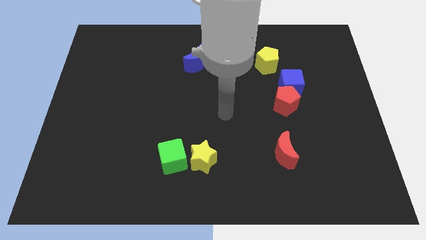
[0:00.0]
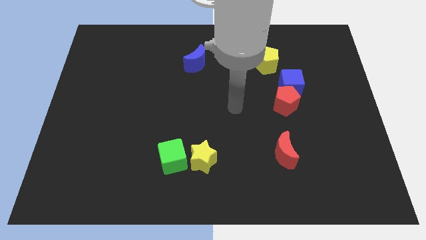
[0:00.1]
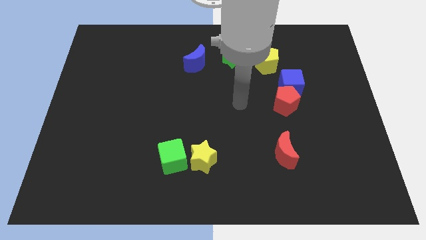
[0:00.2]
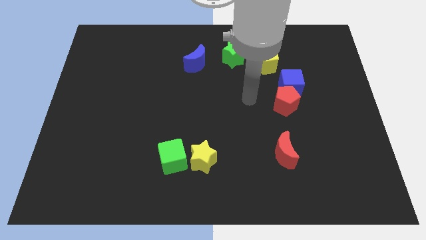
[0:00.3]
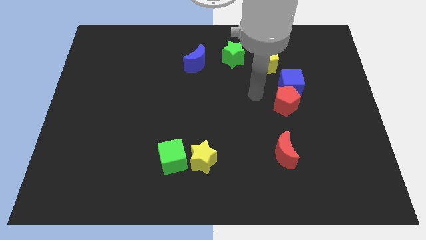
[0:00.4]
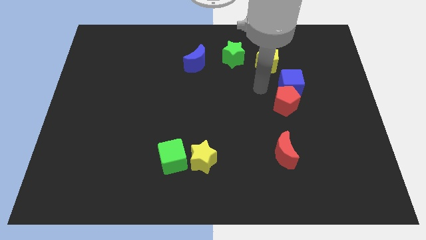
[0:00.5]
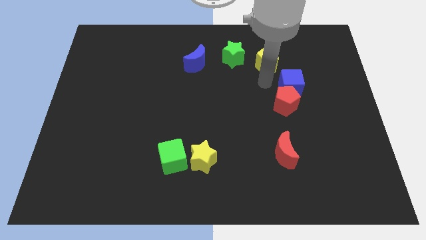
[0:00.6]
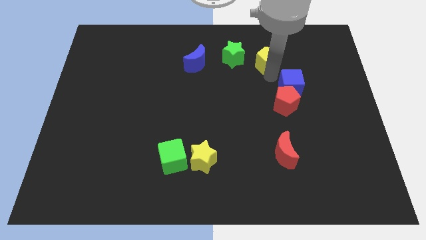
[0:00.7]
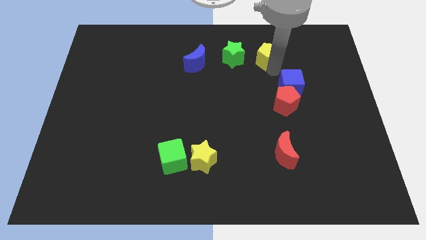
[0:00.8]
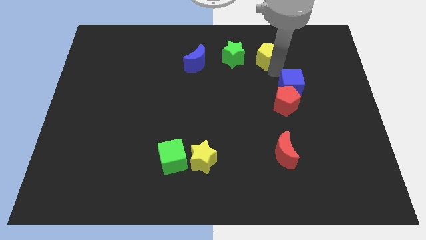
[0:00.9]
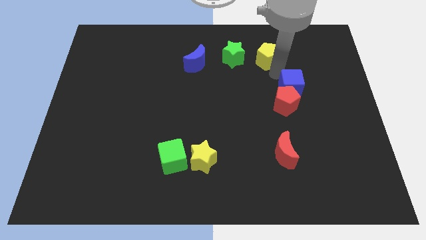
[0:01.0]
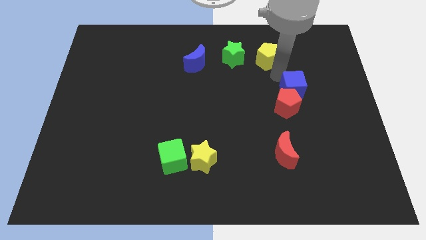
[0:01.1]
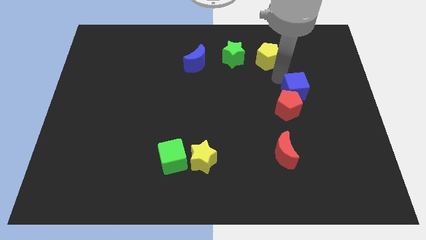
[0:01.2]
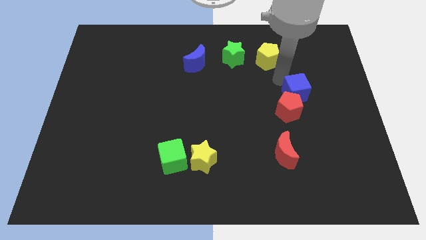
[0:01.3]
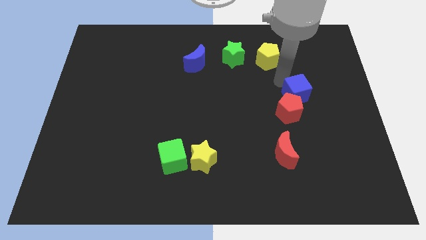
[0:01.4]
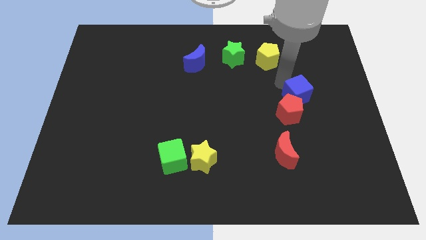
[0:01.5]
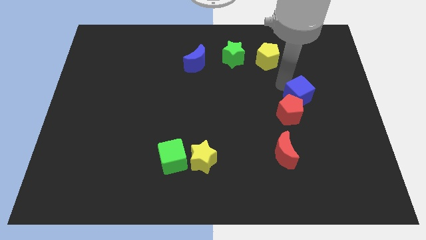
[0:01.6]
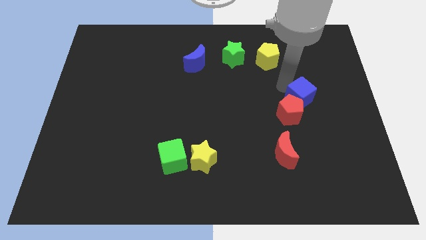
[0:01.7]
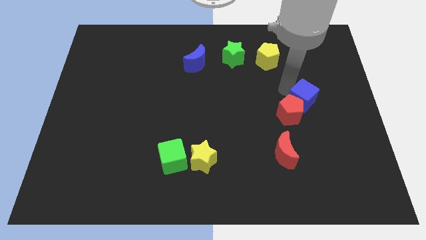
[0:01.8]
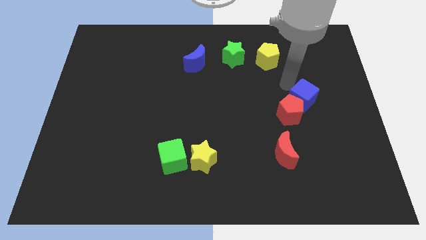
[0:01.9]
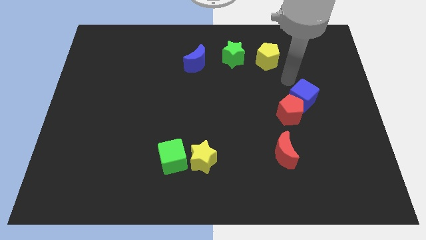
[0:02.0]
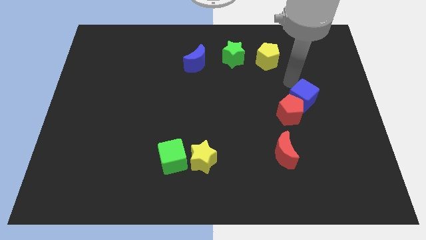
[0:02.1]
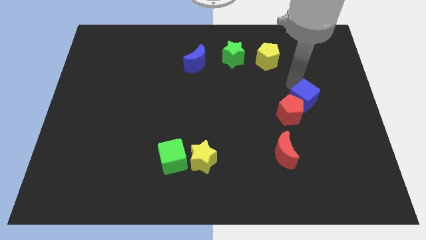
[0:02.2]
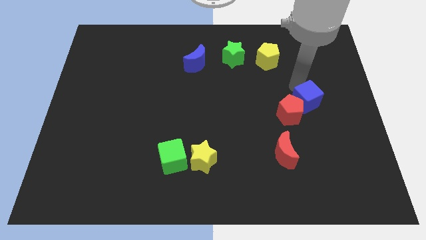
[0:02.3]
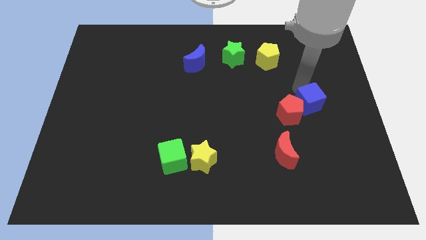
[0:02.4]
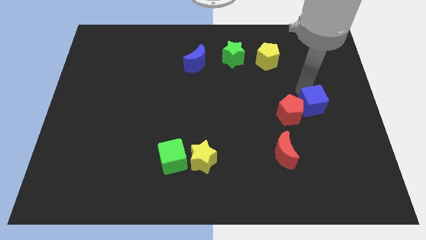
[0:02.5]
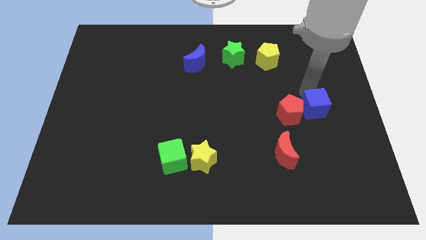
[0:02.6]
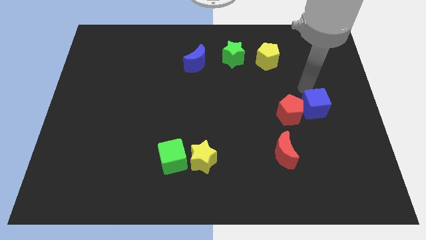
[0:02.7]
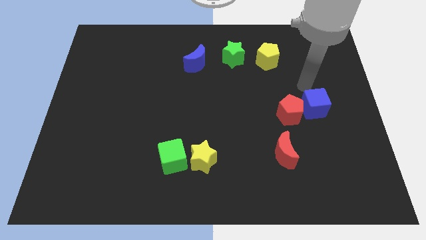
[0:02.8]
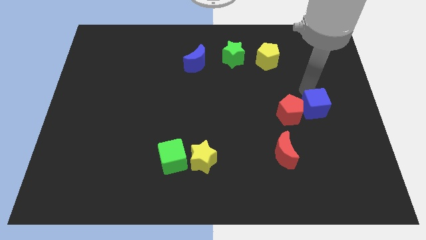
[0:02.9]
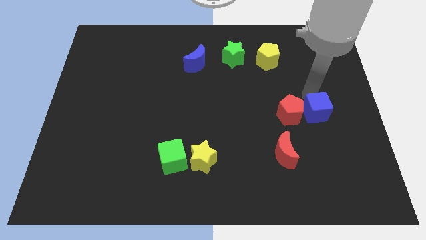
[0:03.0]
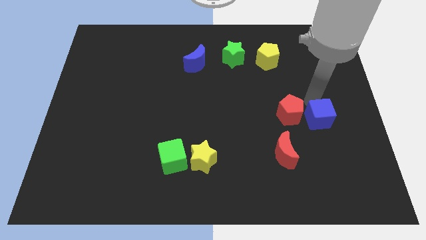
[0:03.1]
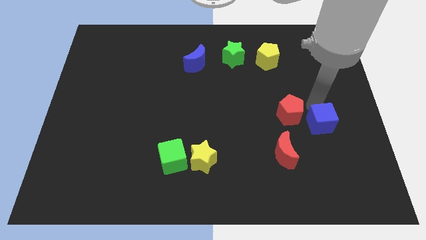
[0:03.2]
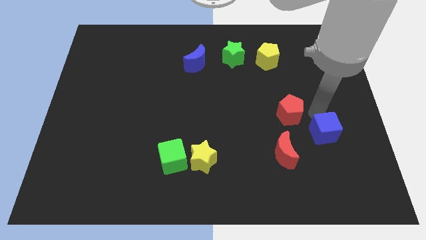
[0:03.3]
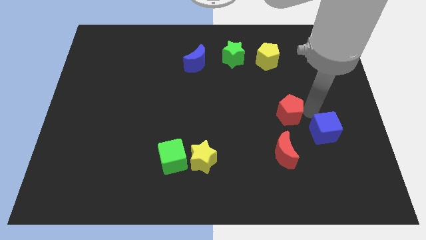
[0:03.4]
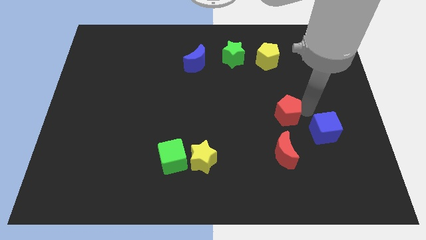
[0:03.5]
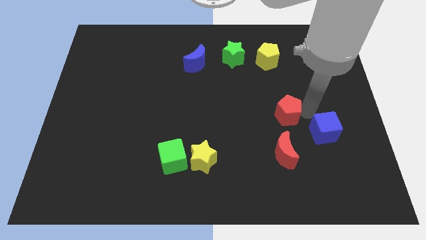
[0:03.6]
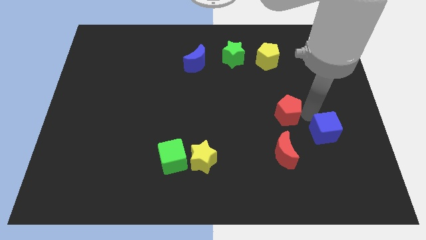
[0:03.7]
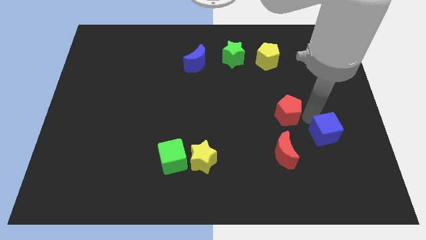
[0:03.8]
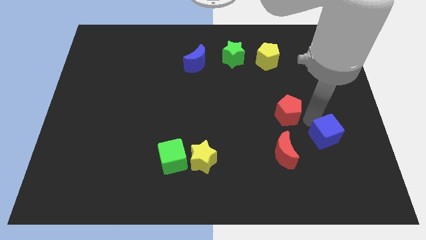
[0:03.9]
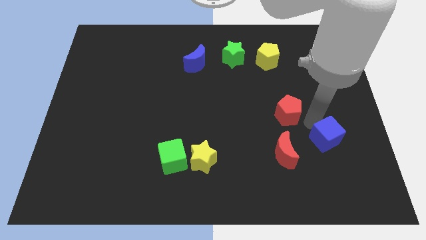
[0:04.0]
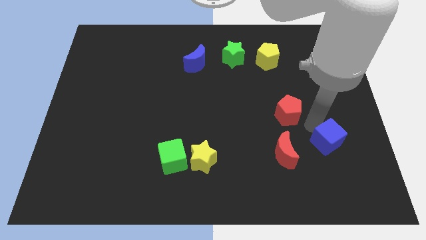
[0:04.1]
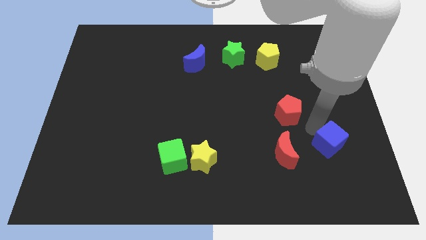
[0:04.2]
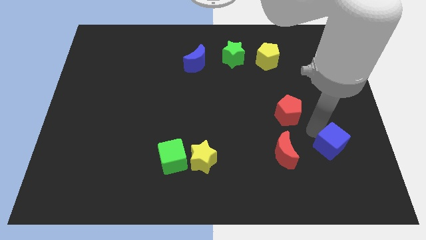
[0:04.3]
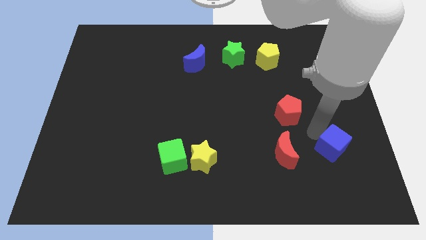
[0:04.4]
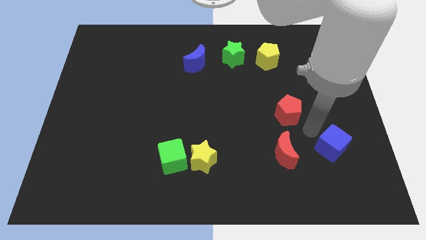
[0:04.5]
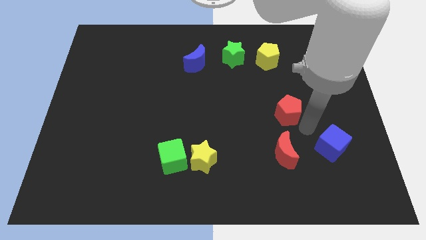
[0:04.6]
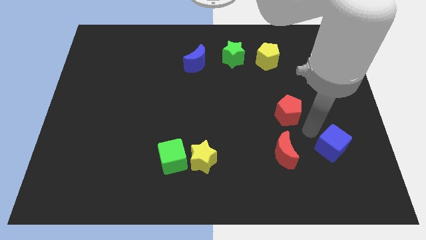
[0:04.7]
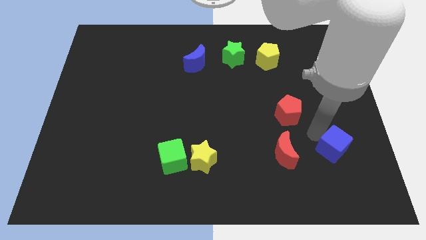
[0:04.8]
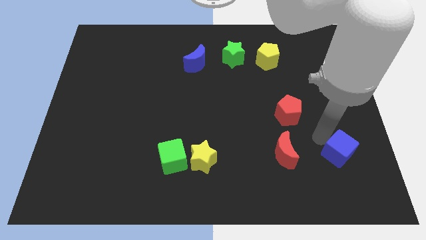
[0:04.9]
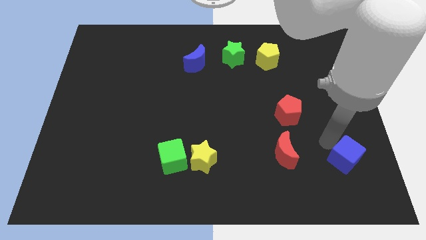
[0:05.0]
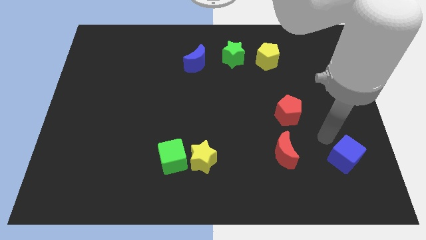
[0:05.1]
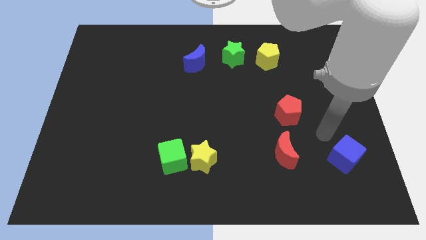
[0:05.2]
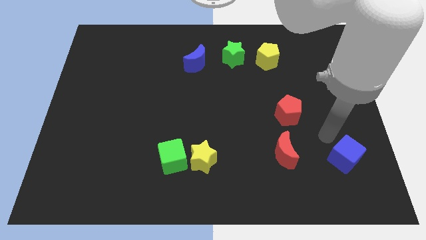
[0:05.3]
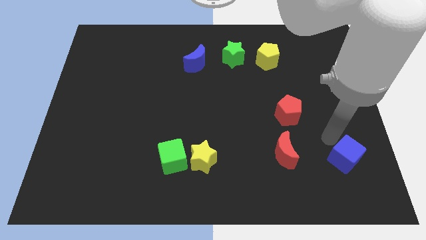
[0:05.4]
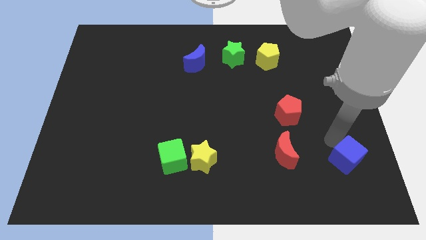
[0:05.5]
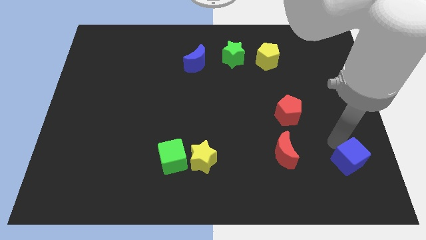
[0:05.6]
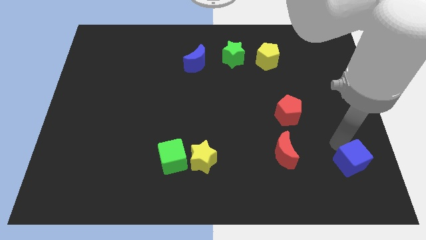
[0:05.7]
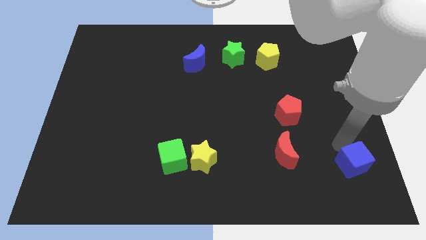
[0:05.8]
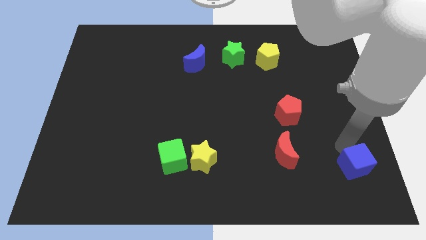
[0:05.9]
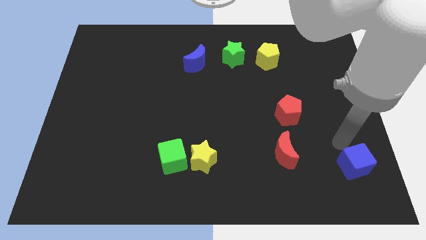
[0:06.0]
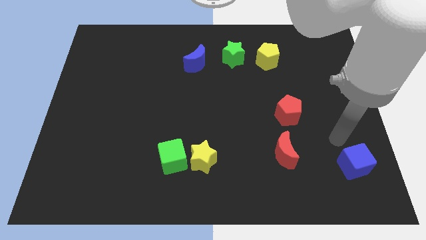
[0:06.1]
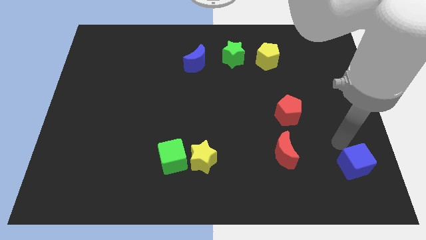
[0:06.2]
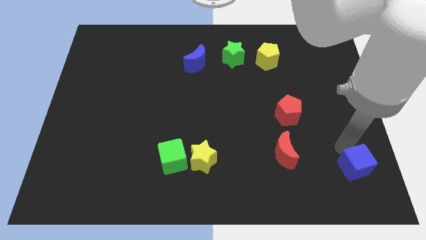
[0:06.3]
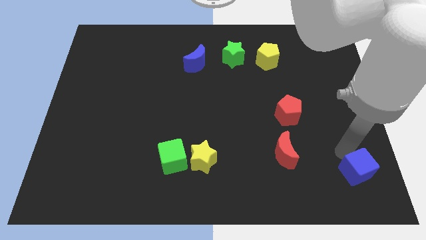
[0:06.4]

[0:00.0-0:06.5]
push the blue cube to the bottom right of the board
